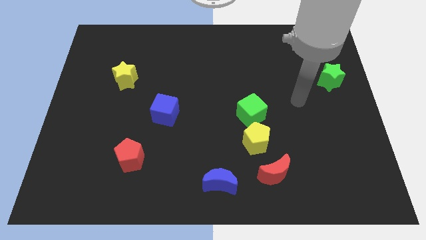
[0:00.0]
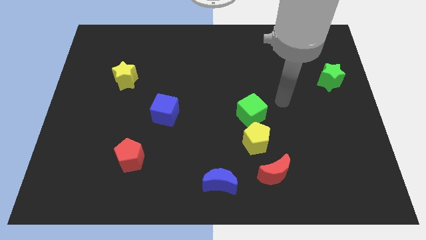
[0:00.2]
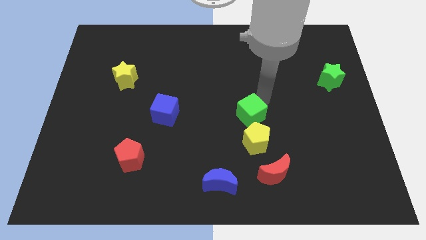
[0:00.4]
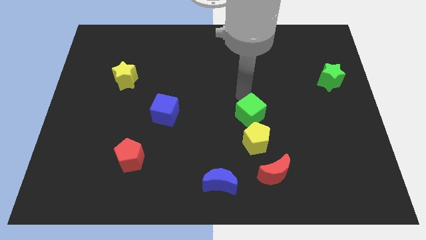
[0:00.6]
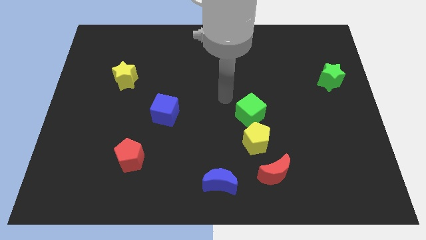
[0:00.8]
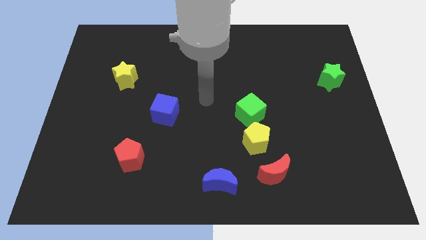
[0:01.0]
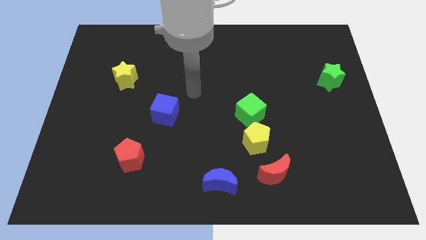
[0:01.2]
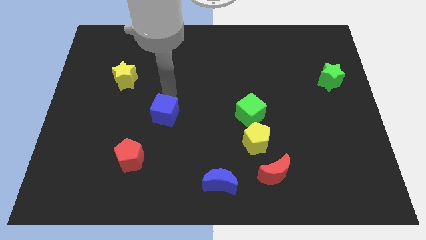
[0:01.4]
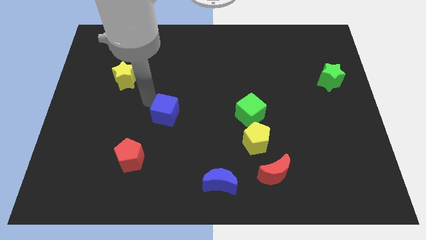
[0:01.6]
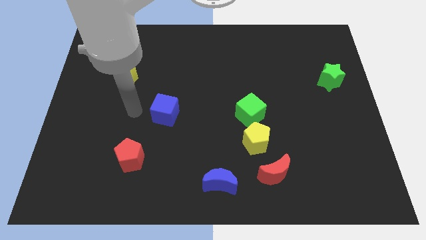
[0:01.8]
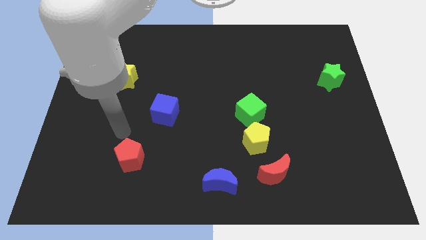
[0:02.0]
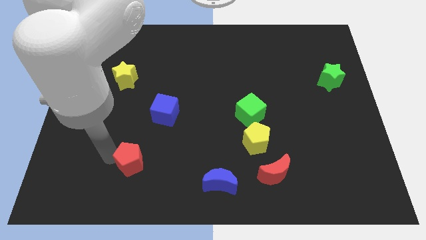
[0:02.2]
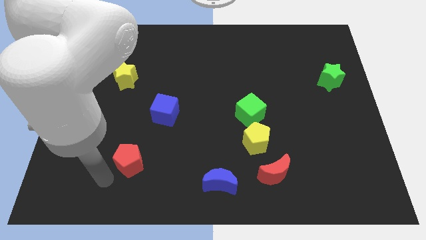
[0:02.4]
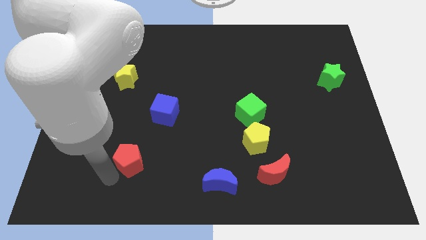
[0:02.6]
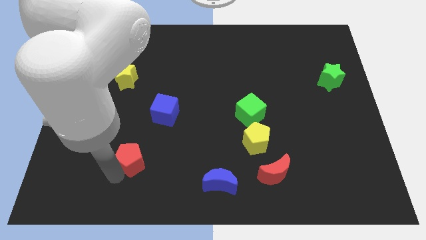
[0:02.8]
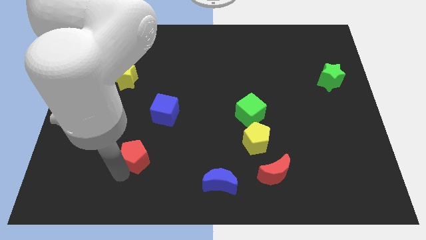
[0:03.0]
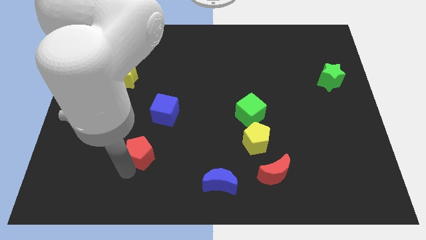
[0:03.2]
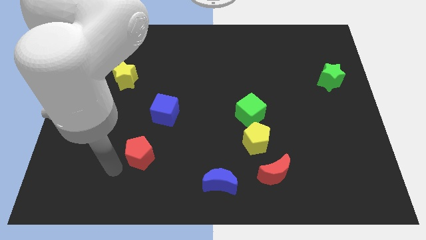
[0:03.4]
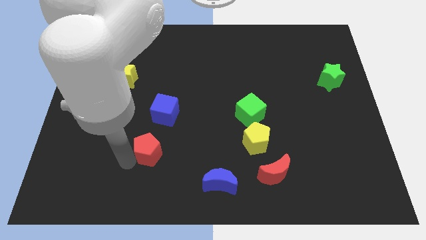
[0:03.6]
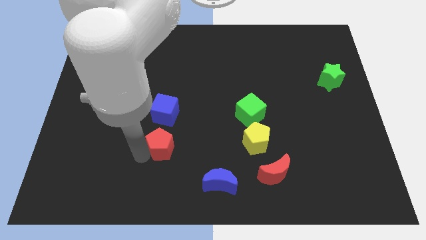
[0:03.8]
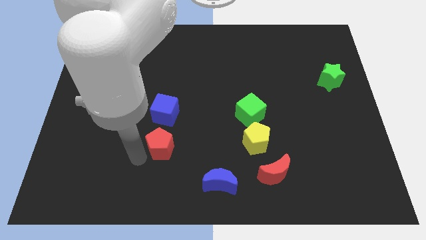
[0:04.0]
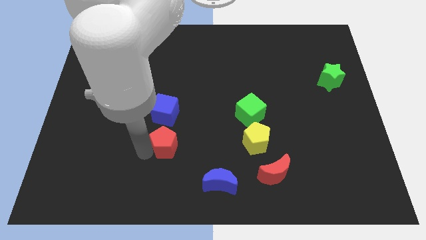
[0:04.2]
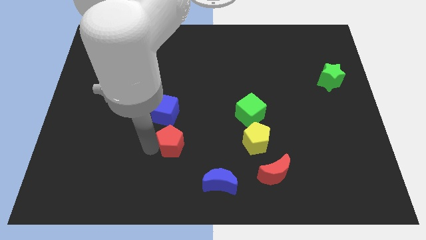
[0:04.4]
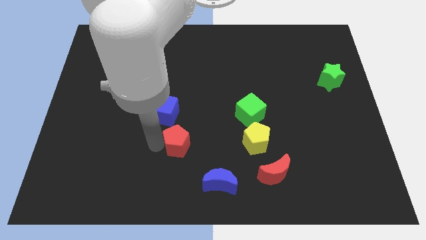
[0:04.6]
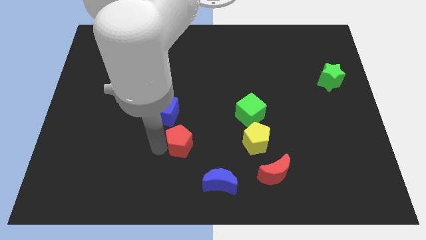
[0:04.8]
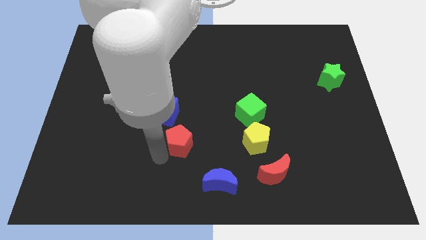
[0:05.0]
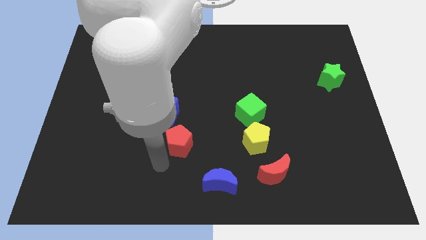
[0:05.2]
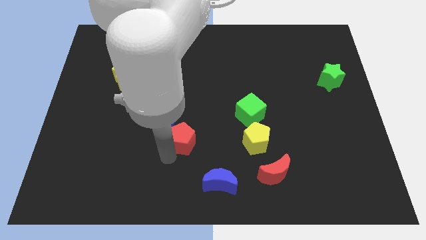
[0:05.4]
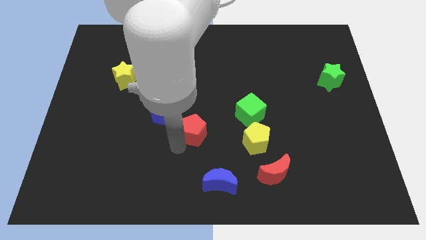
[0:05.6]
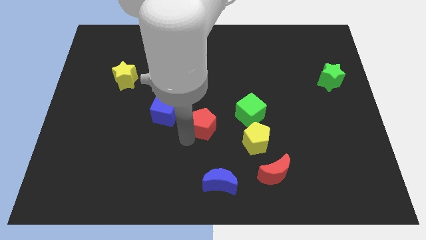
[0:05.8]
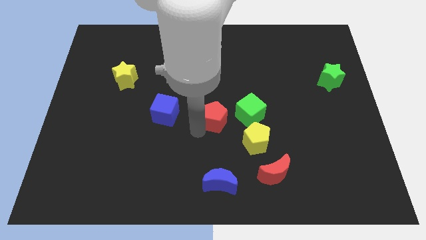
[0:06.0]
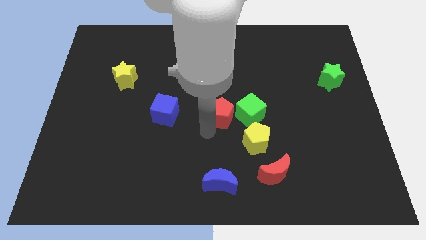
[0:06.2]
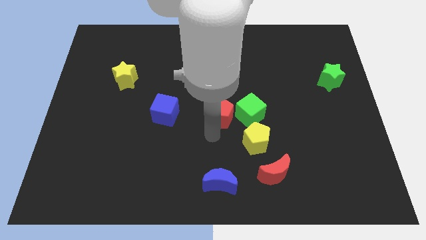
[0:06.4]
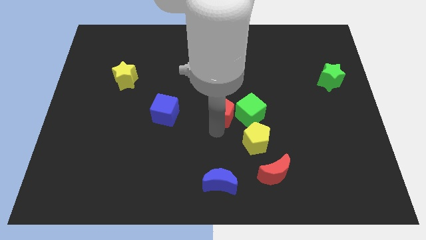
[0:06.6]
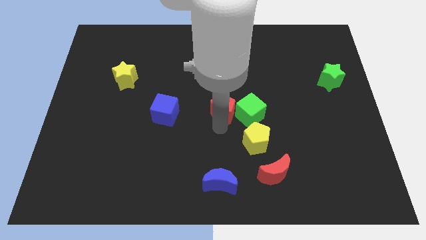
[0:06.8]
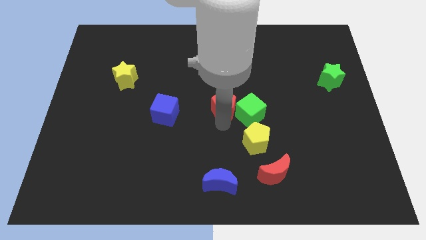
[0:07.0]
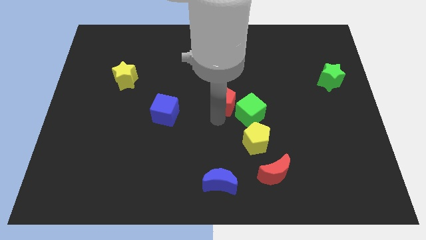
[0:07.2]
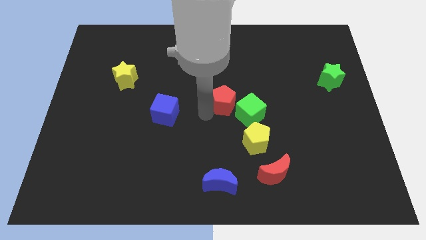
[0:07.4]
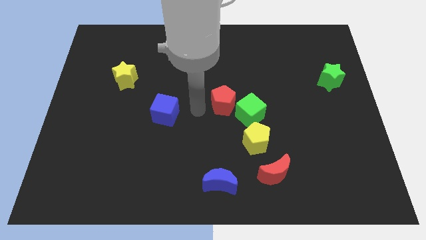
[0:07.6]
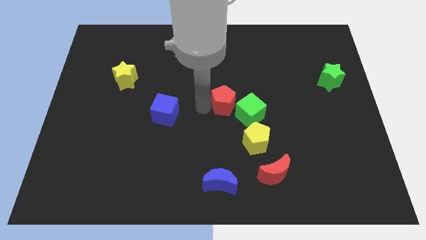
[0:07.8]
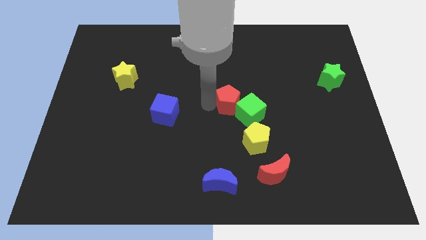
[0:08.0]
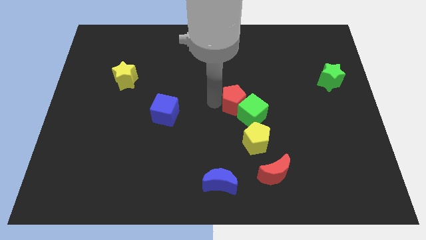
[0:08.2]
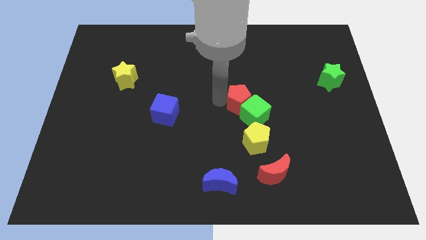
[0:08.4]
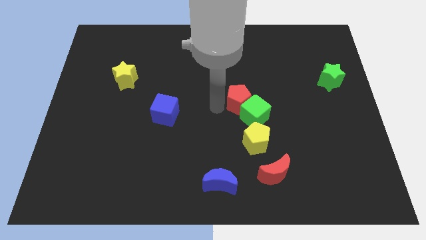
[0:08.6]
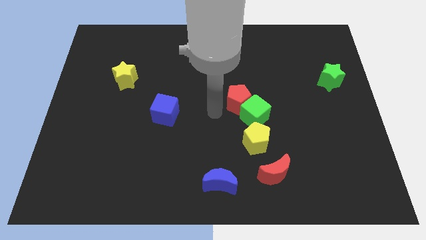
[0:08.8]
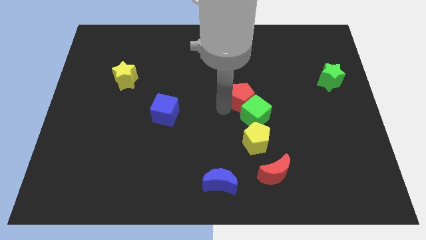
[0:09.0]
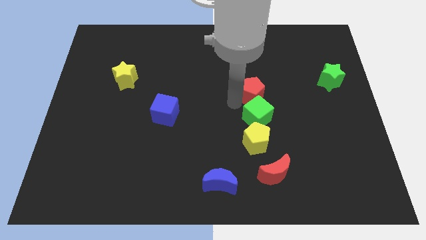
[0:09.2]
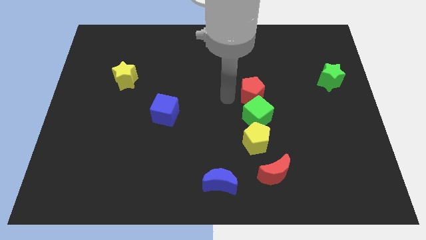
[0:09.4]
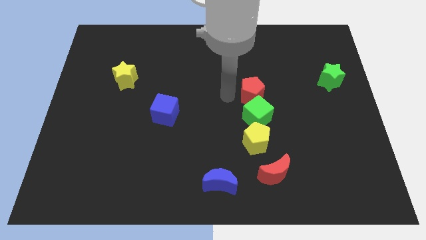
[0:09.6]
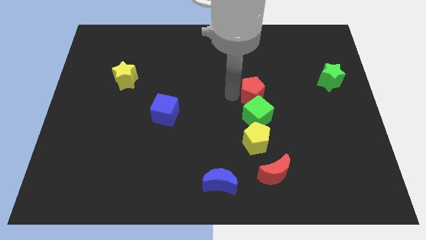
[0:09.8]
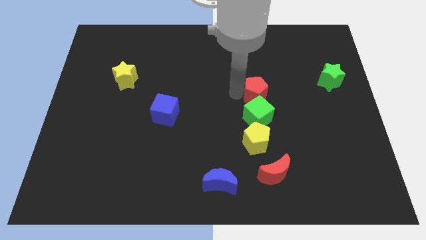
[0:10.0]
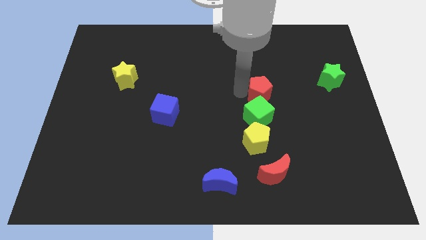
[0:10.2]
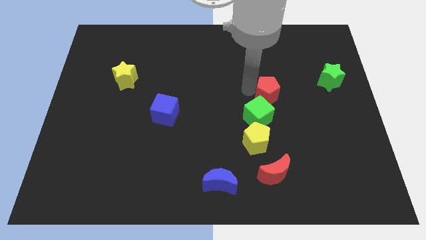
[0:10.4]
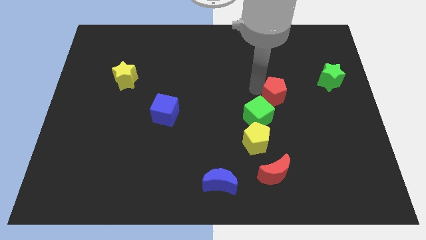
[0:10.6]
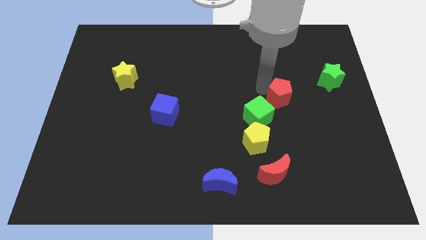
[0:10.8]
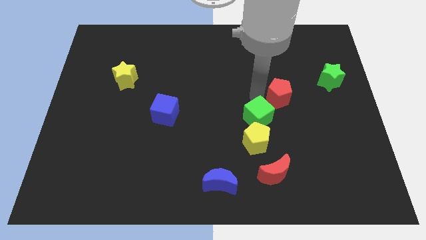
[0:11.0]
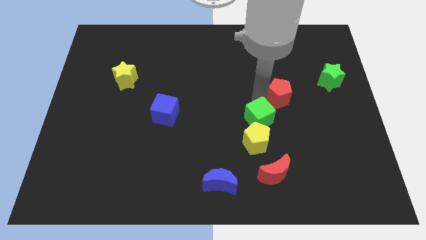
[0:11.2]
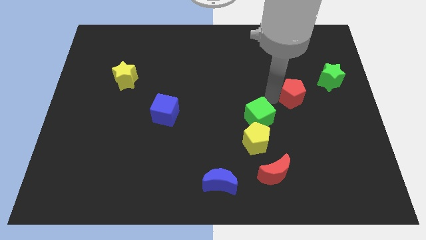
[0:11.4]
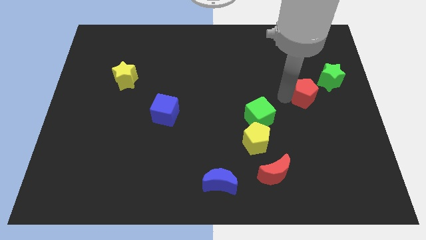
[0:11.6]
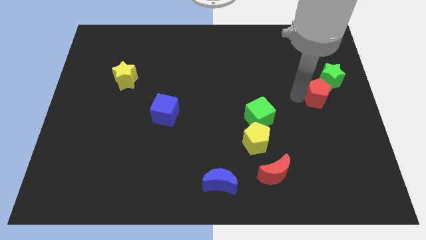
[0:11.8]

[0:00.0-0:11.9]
move the red pentagon to the right side

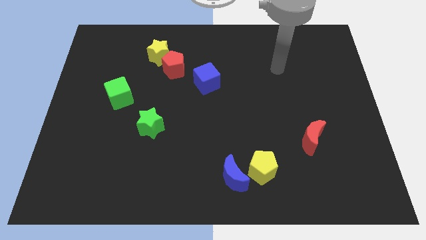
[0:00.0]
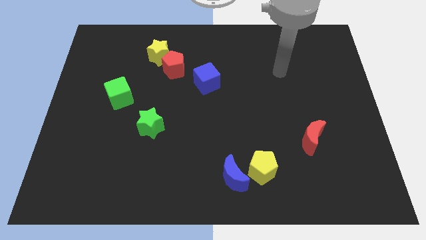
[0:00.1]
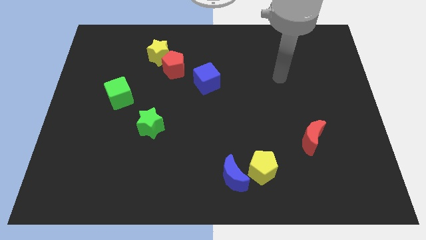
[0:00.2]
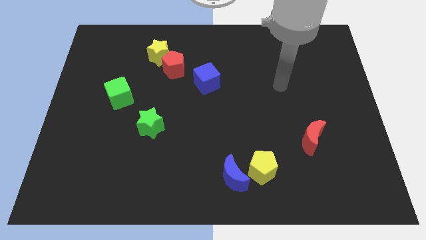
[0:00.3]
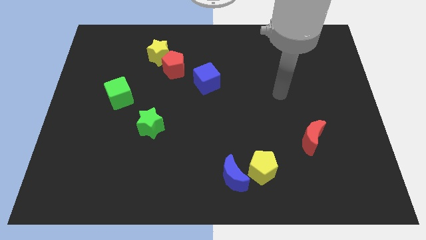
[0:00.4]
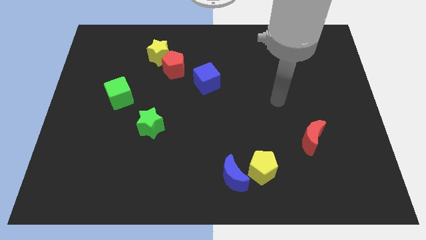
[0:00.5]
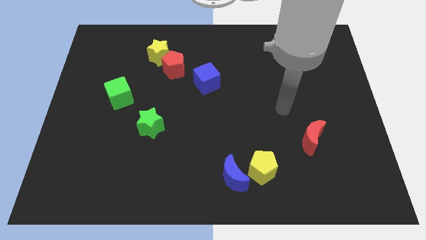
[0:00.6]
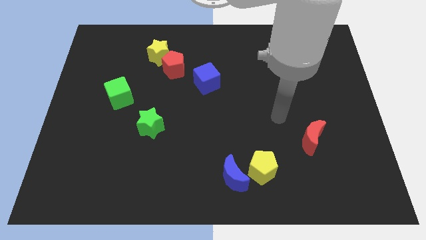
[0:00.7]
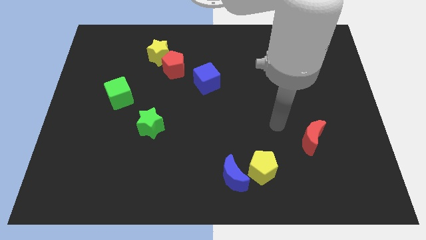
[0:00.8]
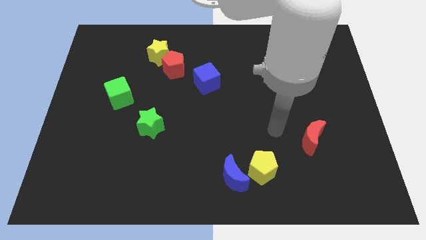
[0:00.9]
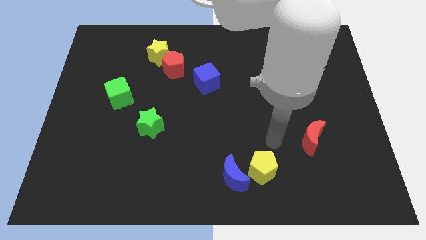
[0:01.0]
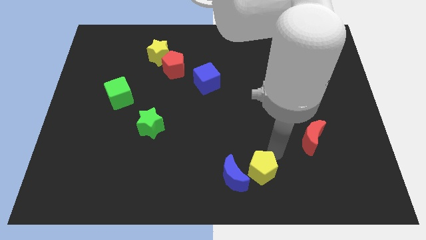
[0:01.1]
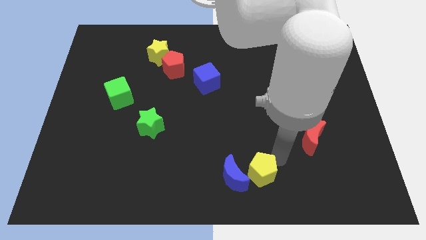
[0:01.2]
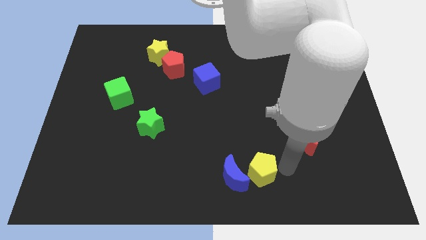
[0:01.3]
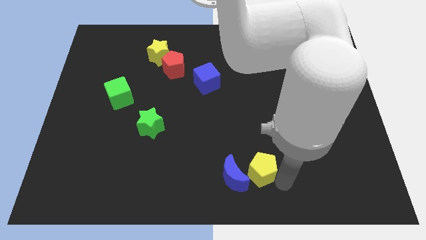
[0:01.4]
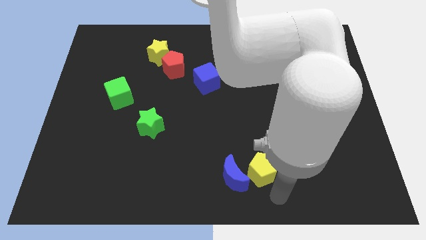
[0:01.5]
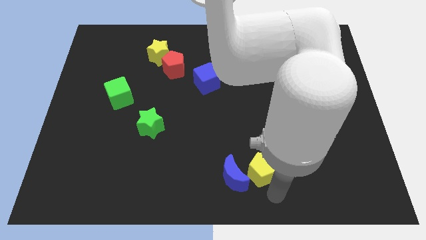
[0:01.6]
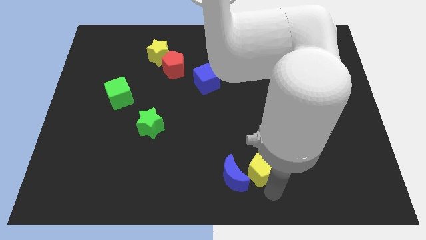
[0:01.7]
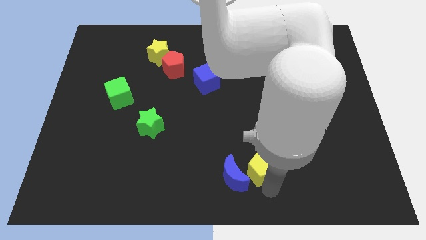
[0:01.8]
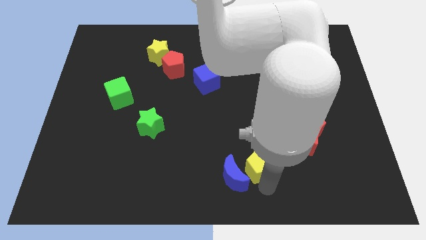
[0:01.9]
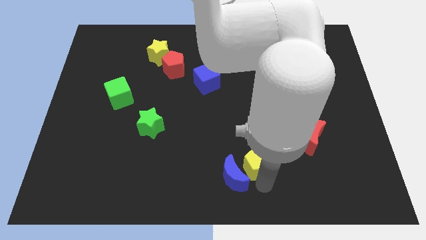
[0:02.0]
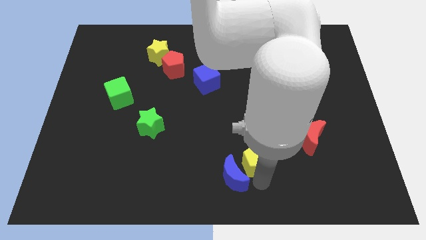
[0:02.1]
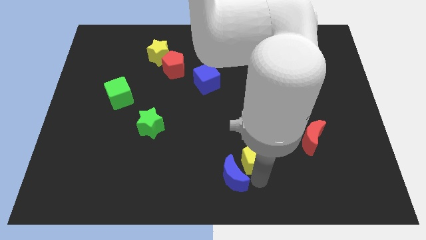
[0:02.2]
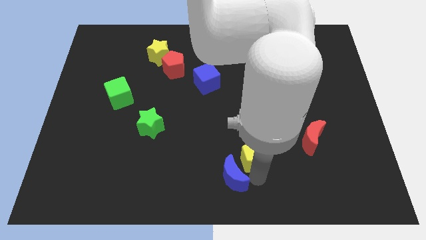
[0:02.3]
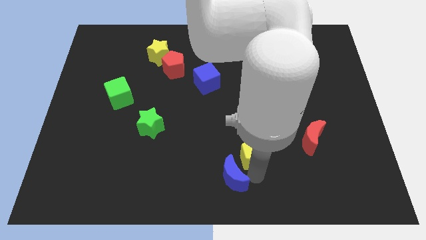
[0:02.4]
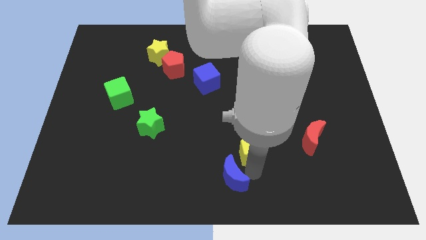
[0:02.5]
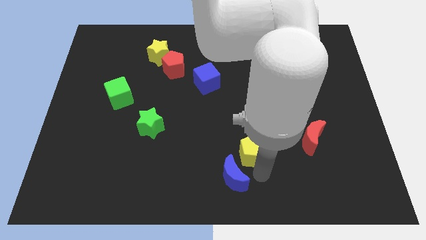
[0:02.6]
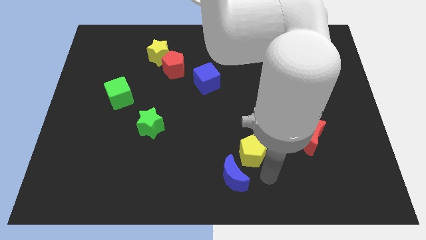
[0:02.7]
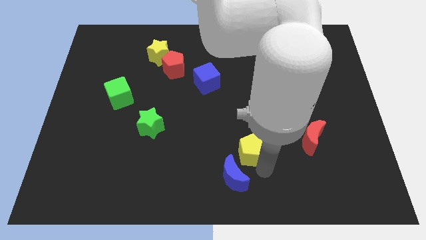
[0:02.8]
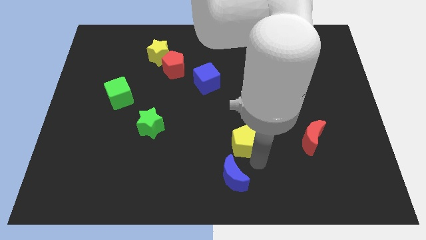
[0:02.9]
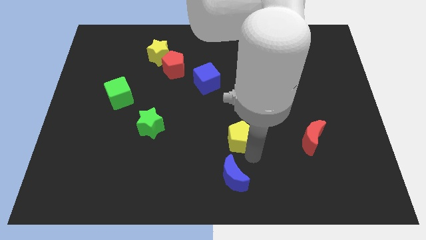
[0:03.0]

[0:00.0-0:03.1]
slide the yellow pentagon to the center of the board
